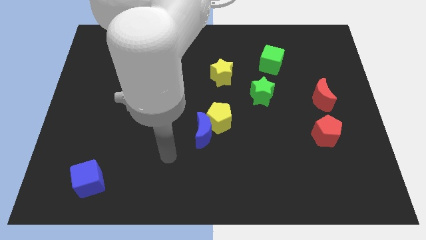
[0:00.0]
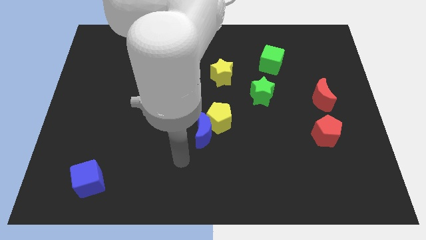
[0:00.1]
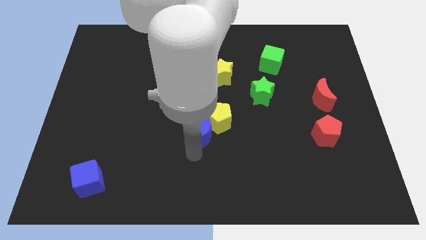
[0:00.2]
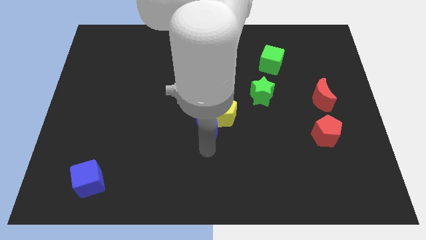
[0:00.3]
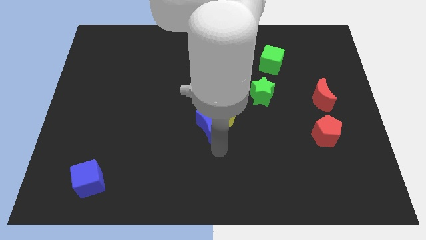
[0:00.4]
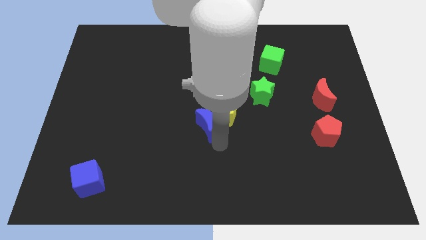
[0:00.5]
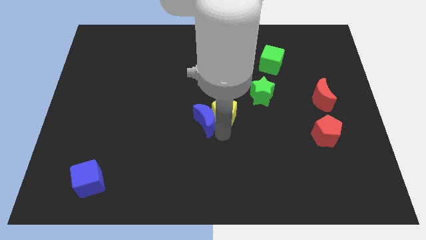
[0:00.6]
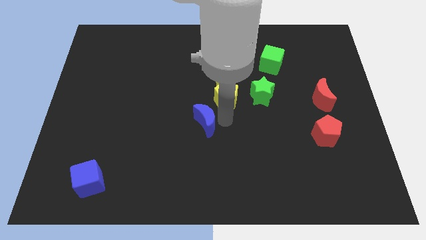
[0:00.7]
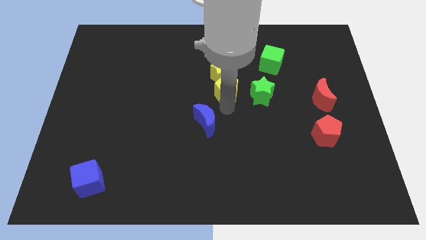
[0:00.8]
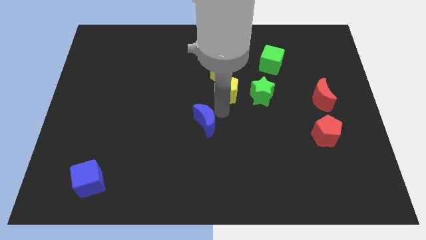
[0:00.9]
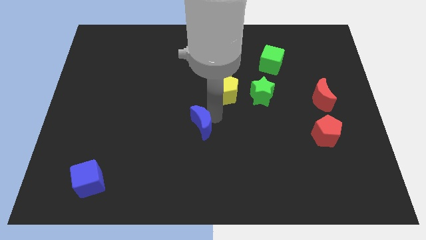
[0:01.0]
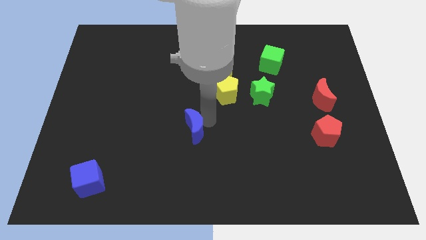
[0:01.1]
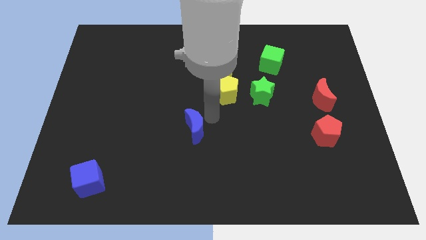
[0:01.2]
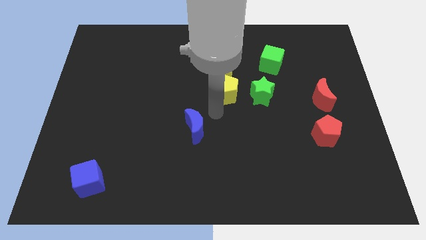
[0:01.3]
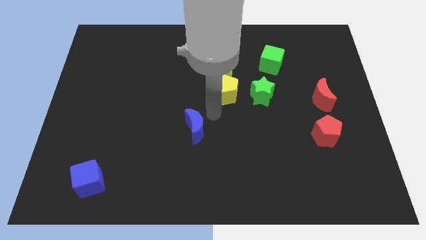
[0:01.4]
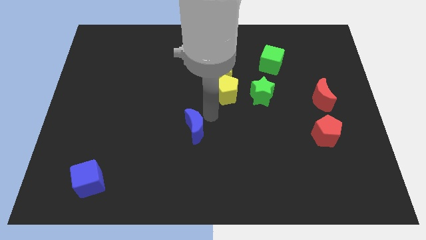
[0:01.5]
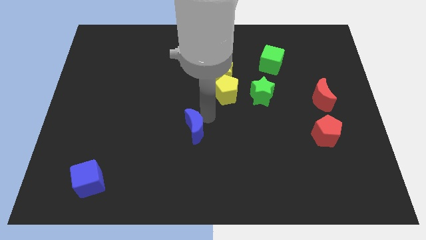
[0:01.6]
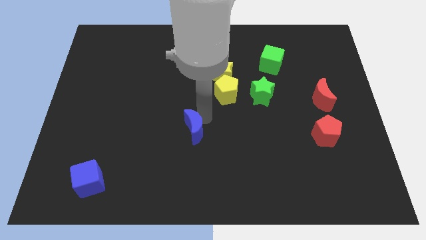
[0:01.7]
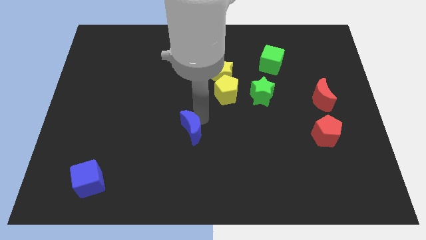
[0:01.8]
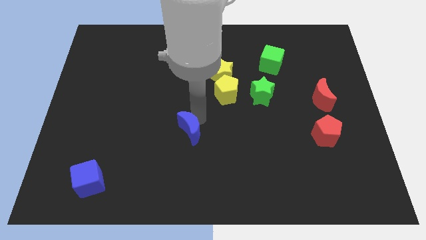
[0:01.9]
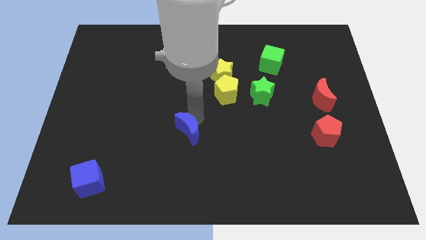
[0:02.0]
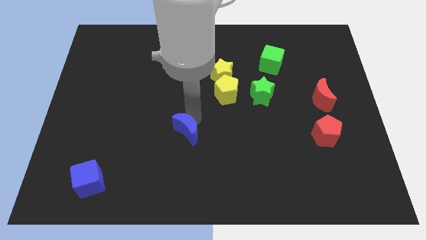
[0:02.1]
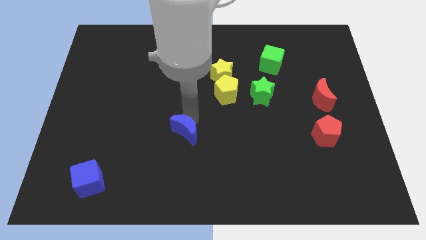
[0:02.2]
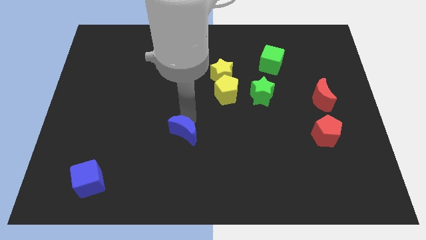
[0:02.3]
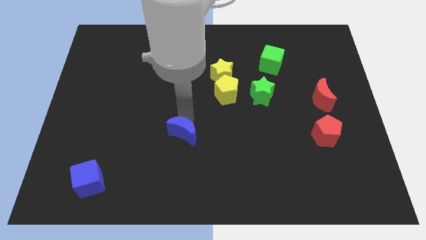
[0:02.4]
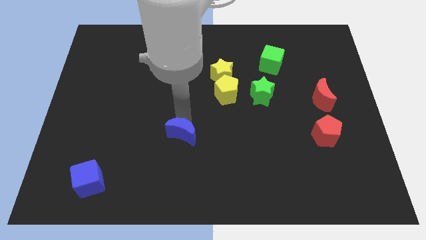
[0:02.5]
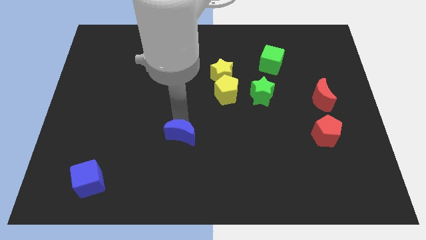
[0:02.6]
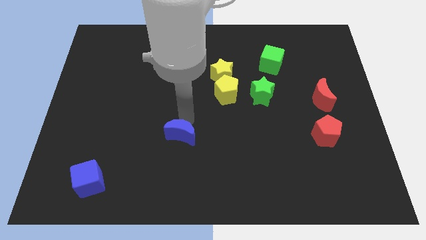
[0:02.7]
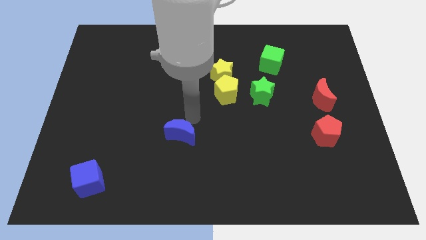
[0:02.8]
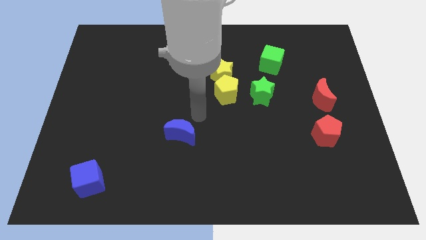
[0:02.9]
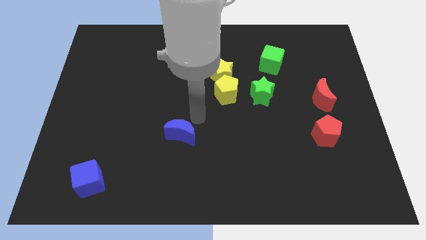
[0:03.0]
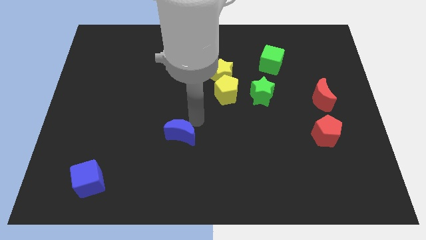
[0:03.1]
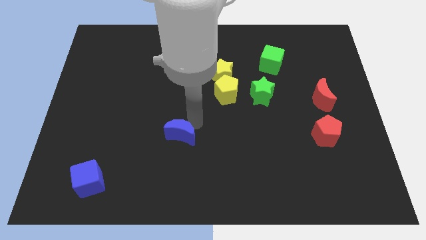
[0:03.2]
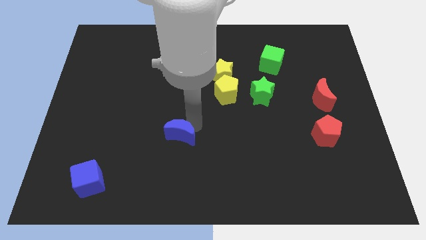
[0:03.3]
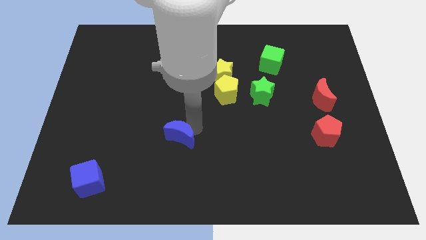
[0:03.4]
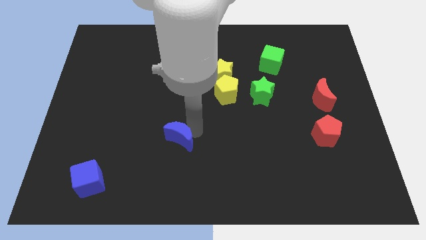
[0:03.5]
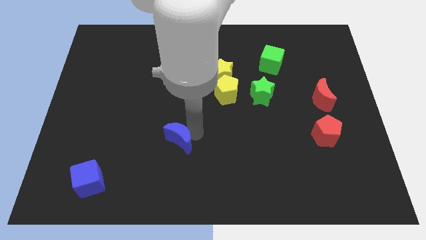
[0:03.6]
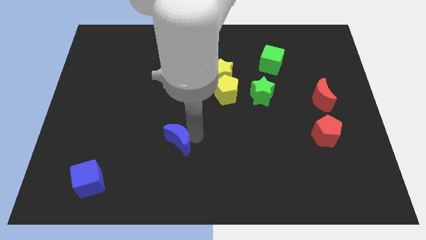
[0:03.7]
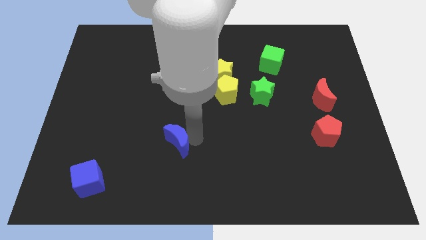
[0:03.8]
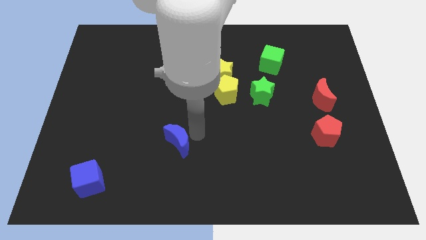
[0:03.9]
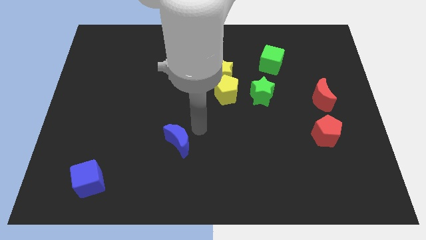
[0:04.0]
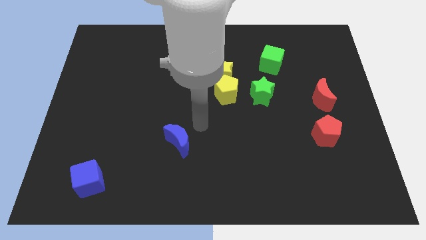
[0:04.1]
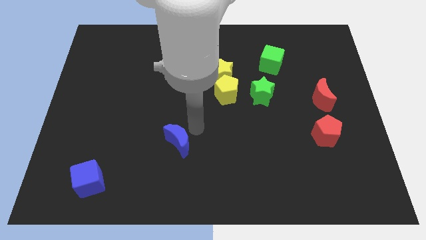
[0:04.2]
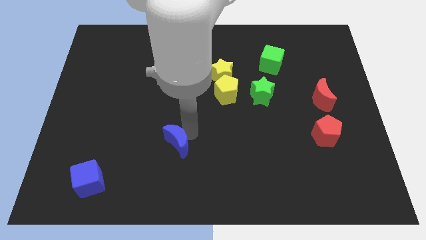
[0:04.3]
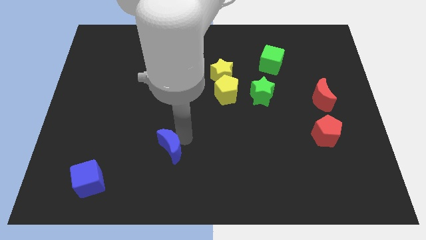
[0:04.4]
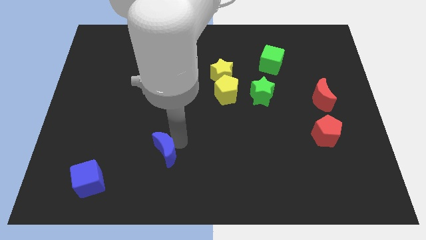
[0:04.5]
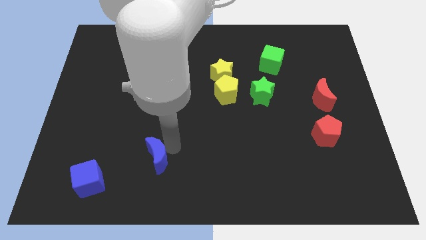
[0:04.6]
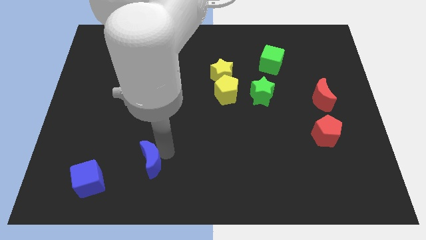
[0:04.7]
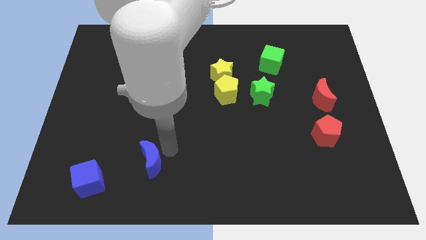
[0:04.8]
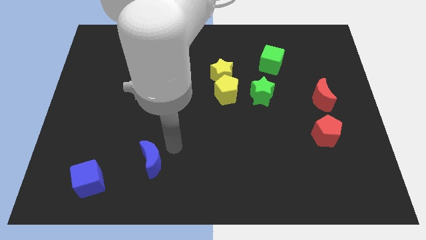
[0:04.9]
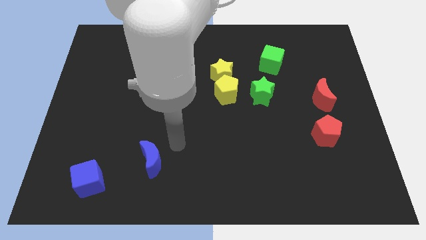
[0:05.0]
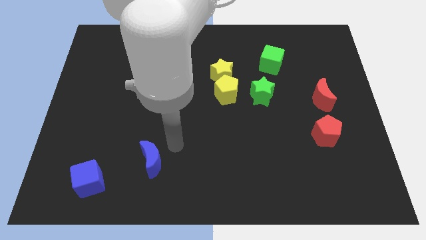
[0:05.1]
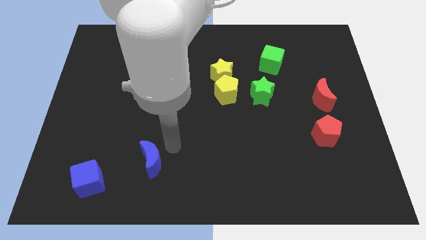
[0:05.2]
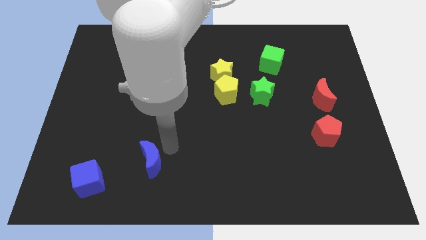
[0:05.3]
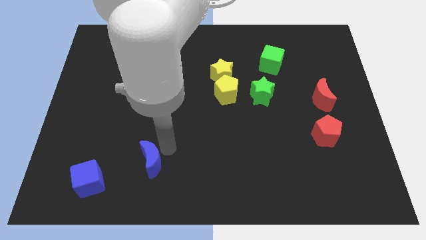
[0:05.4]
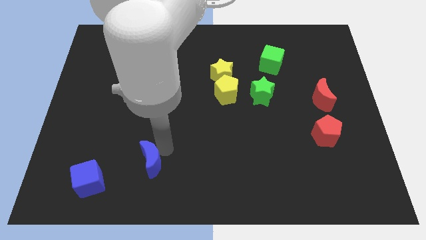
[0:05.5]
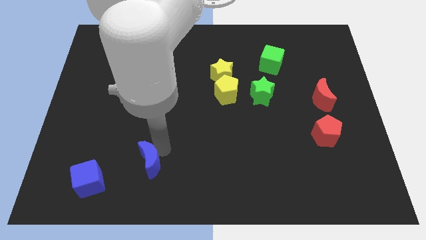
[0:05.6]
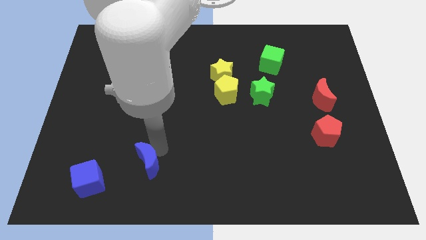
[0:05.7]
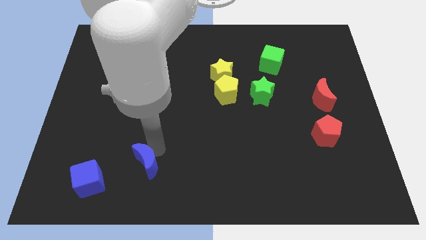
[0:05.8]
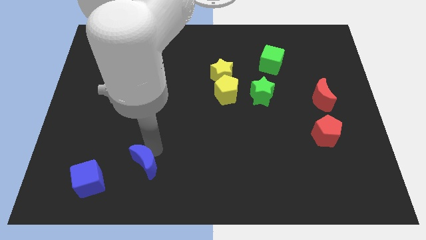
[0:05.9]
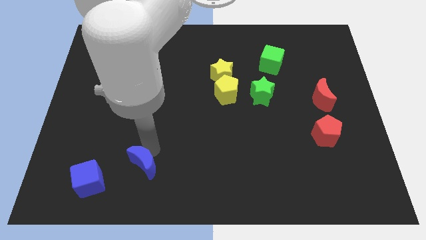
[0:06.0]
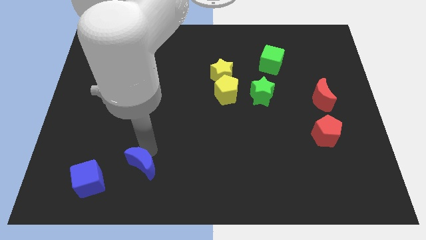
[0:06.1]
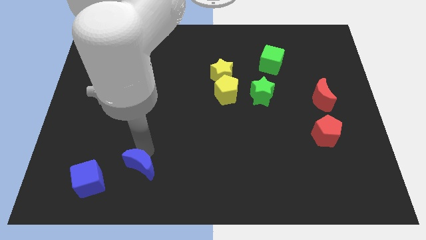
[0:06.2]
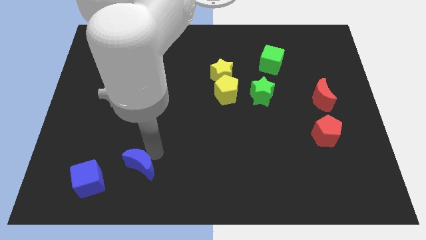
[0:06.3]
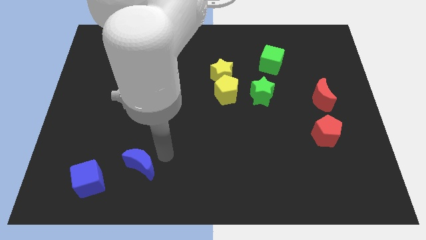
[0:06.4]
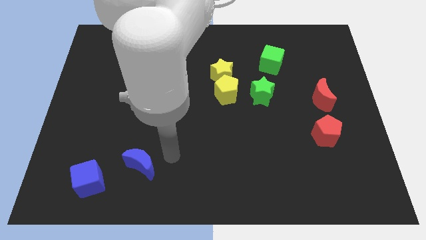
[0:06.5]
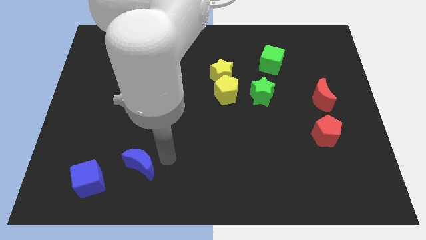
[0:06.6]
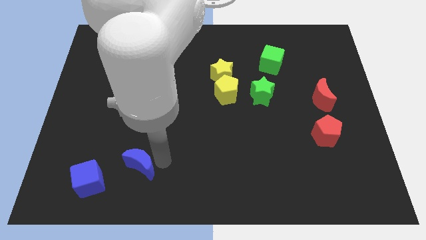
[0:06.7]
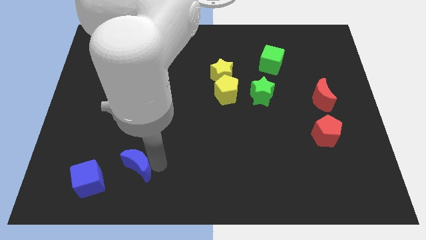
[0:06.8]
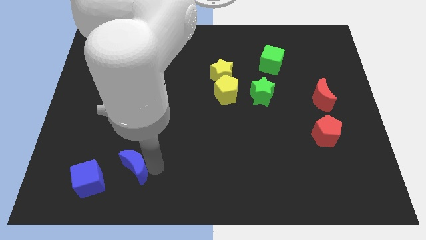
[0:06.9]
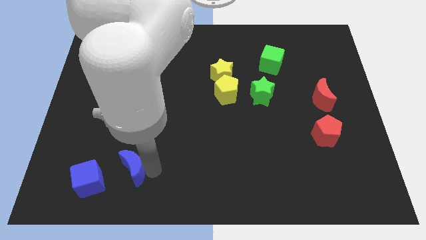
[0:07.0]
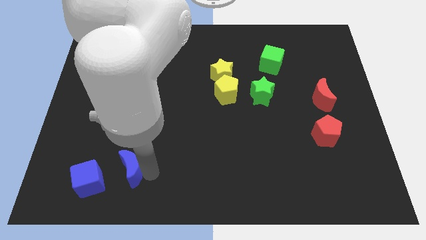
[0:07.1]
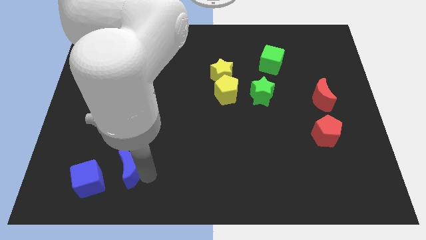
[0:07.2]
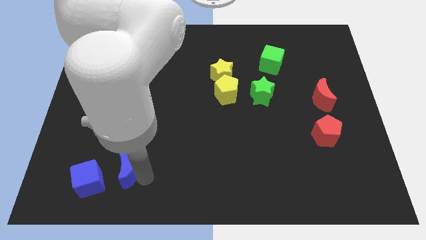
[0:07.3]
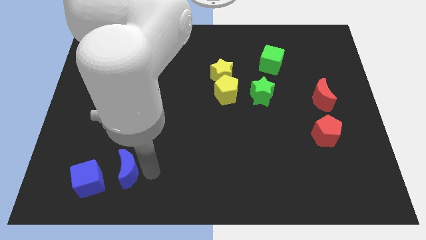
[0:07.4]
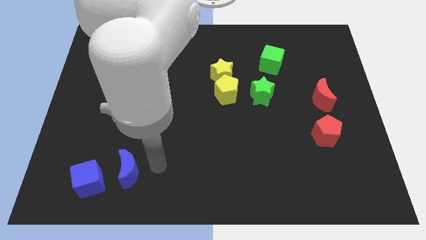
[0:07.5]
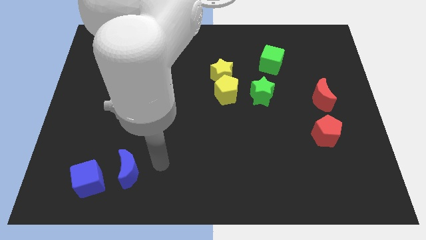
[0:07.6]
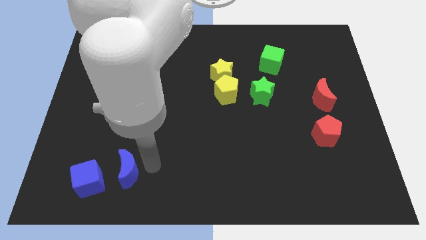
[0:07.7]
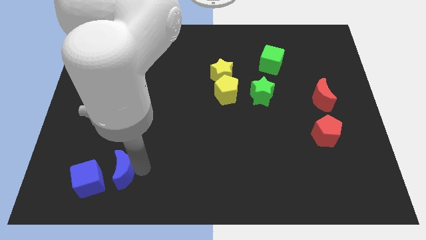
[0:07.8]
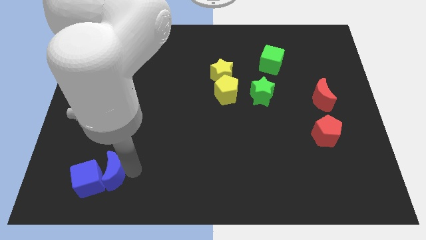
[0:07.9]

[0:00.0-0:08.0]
move the blue moon towards the blue cube
